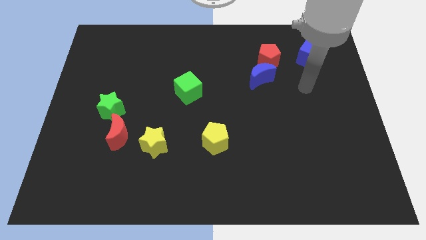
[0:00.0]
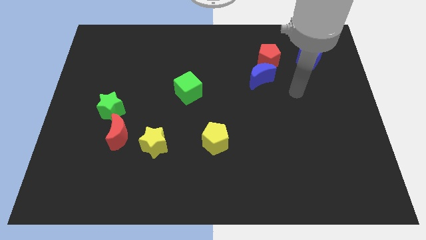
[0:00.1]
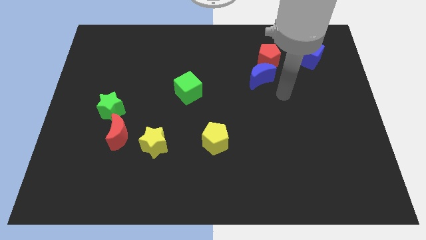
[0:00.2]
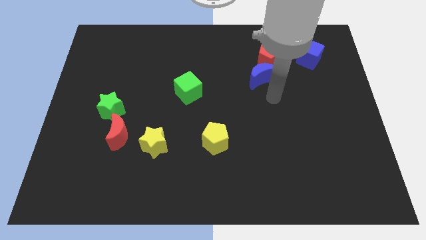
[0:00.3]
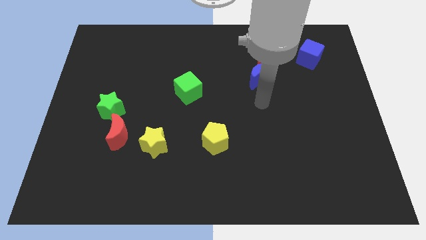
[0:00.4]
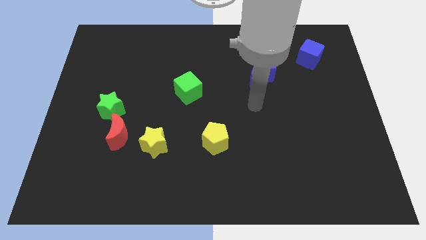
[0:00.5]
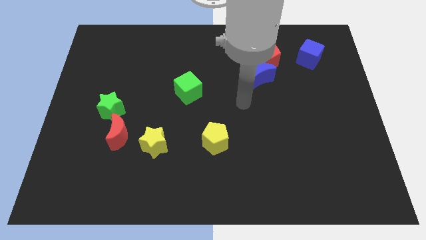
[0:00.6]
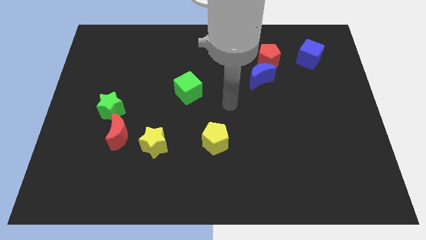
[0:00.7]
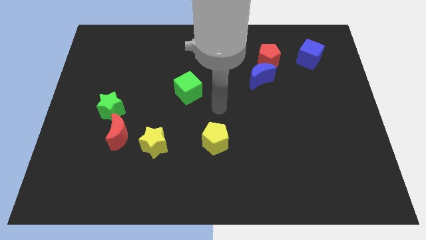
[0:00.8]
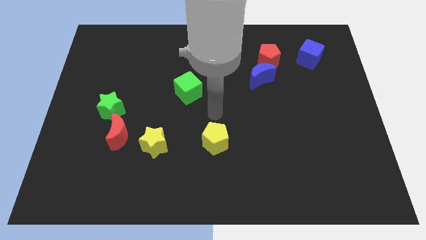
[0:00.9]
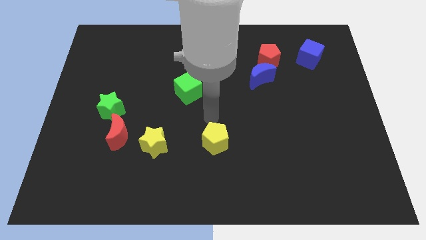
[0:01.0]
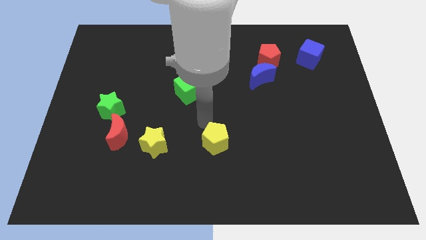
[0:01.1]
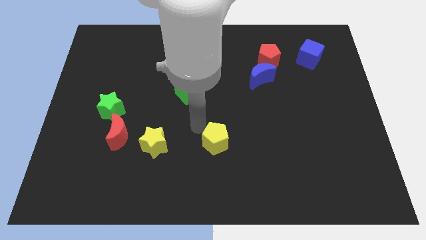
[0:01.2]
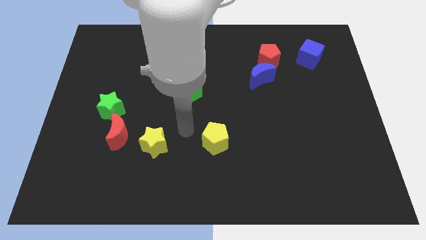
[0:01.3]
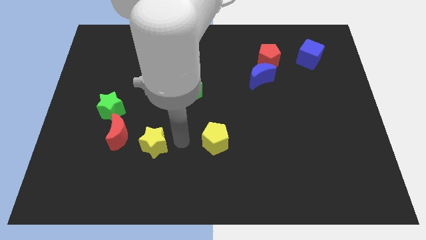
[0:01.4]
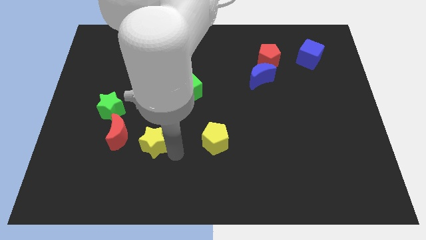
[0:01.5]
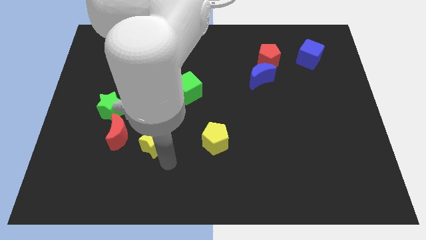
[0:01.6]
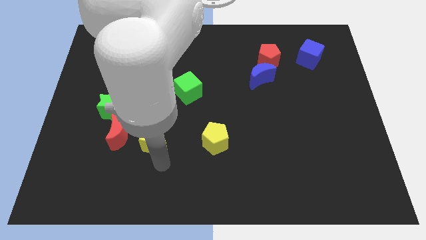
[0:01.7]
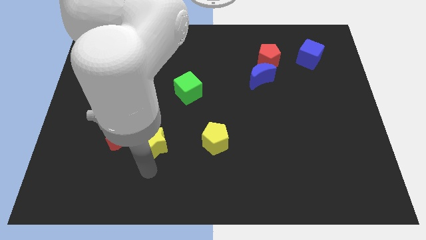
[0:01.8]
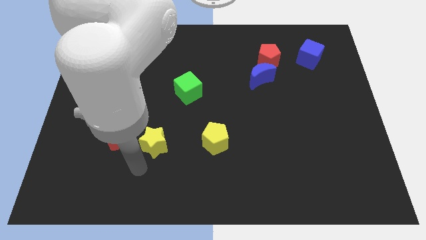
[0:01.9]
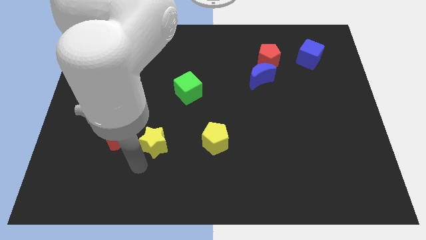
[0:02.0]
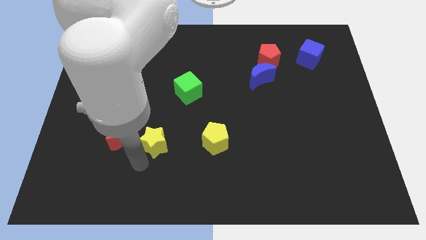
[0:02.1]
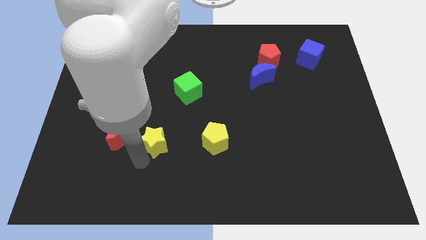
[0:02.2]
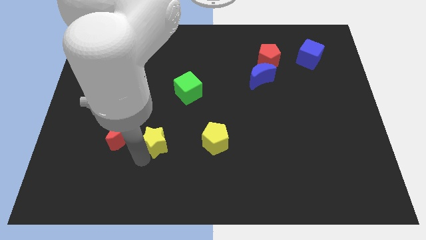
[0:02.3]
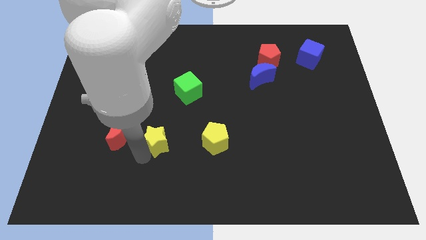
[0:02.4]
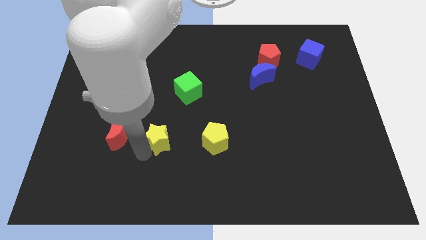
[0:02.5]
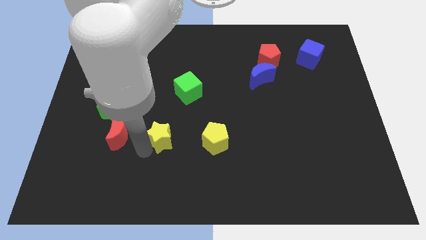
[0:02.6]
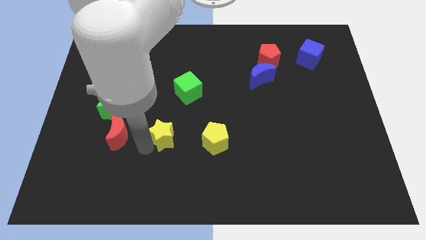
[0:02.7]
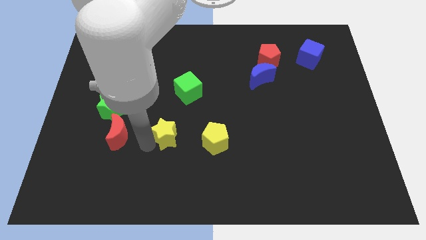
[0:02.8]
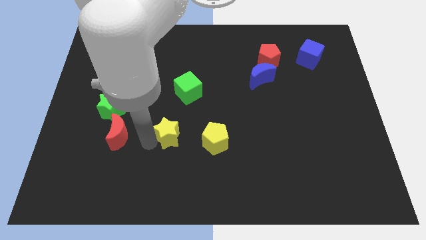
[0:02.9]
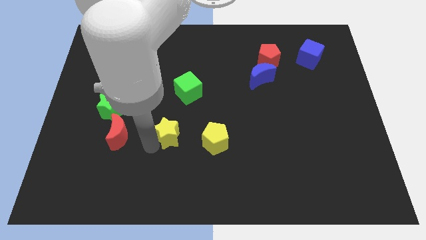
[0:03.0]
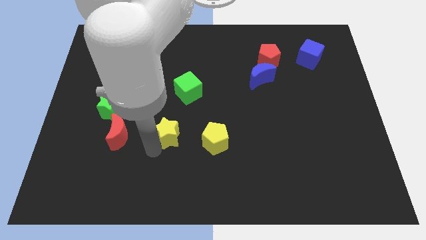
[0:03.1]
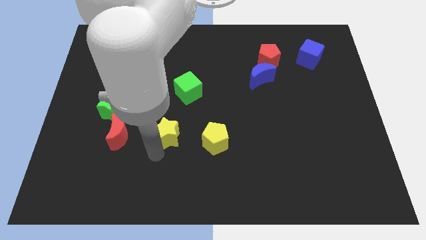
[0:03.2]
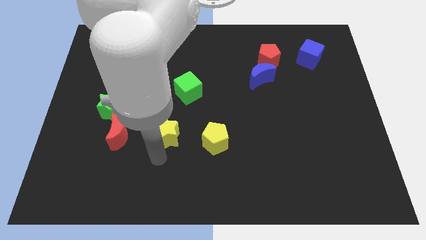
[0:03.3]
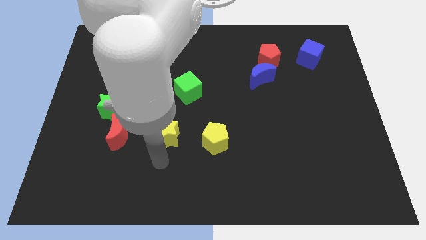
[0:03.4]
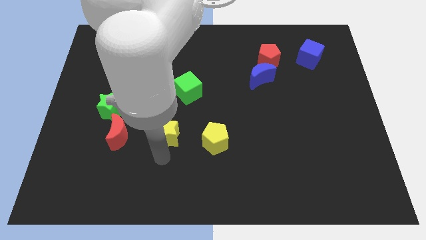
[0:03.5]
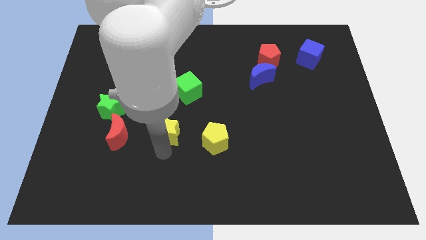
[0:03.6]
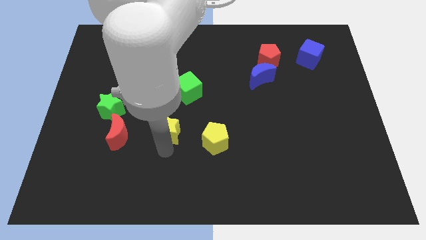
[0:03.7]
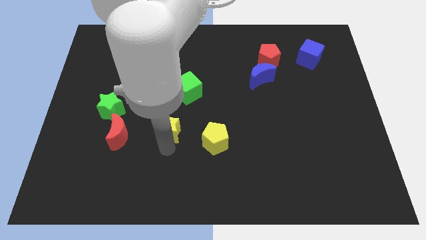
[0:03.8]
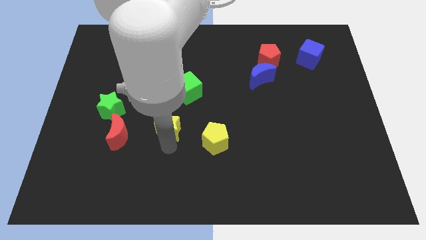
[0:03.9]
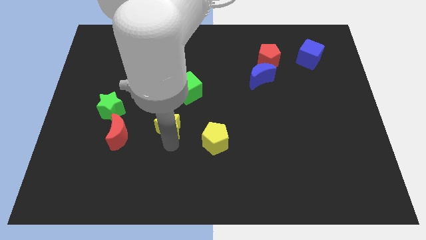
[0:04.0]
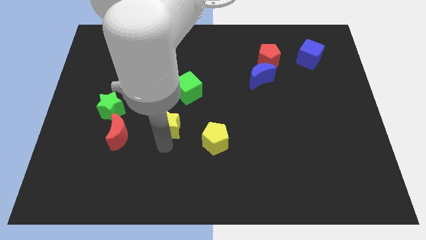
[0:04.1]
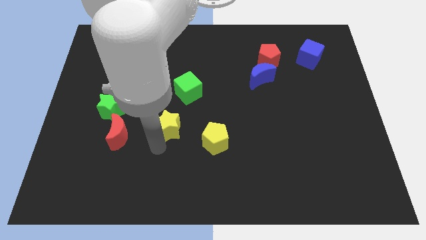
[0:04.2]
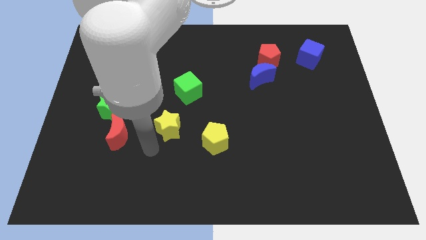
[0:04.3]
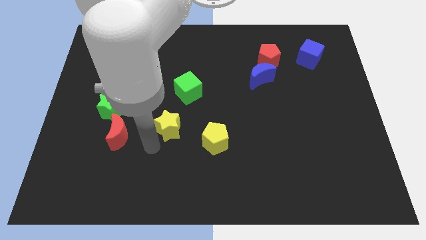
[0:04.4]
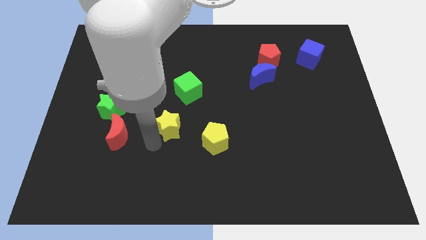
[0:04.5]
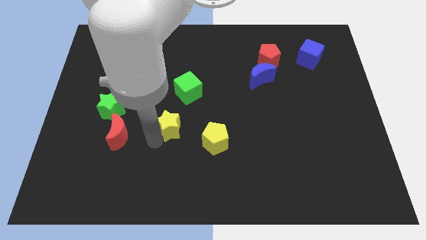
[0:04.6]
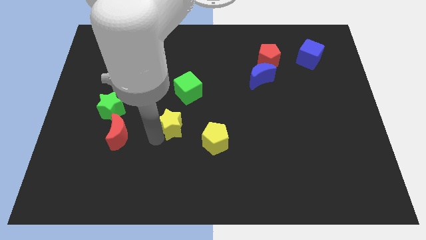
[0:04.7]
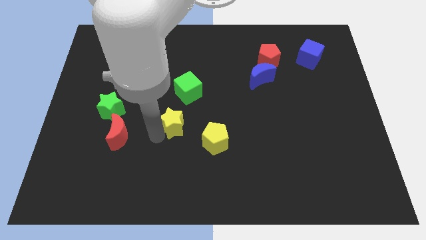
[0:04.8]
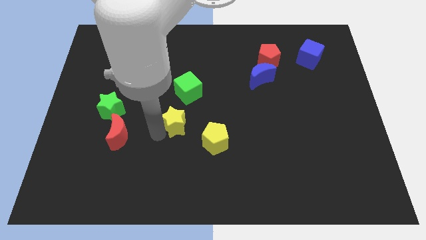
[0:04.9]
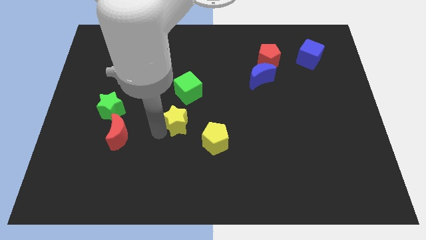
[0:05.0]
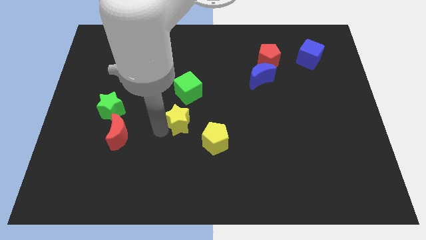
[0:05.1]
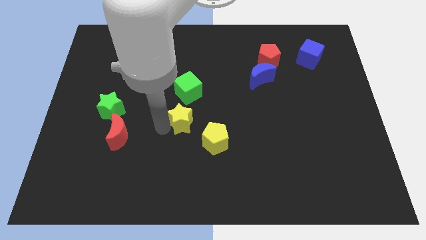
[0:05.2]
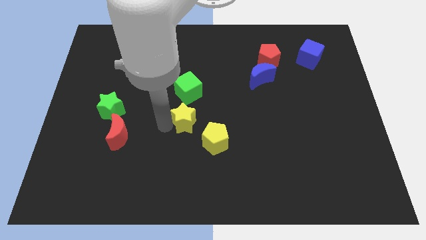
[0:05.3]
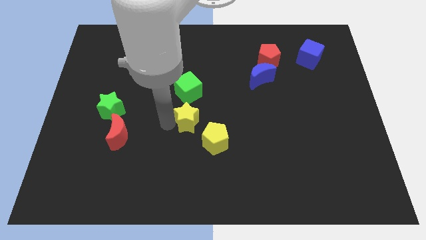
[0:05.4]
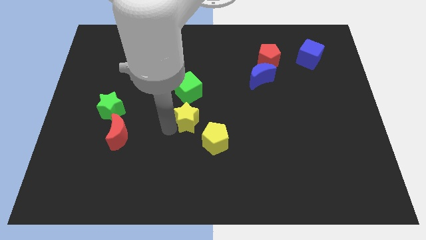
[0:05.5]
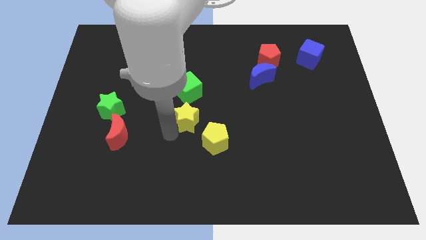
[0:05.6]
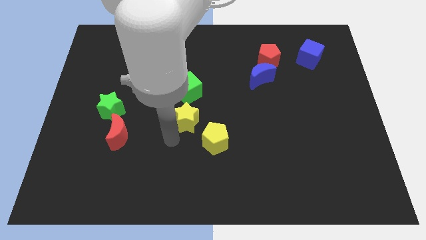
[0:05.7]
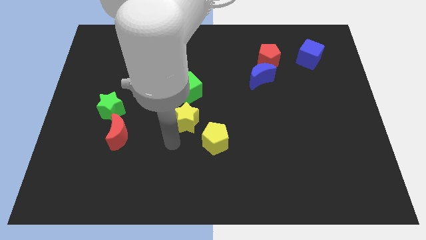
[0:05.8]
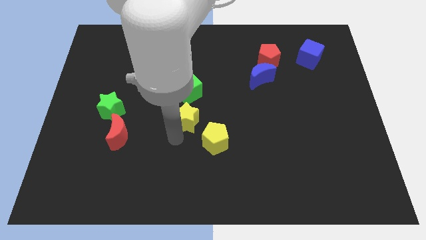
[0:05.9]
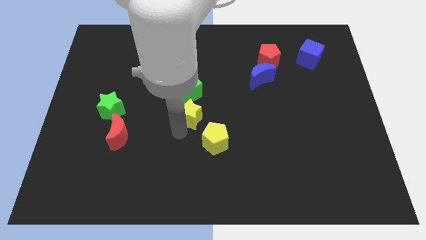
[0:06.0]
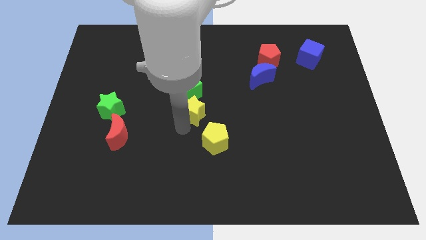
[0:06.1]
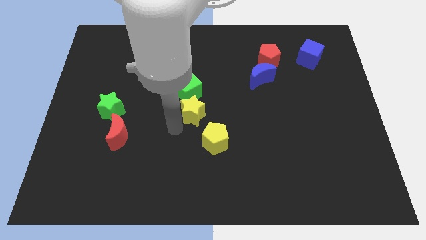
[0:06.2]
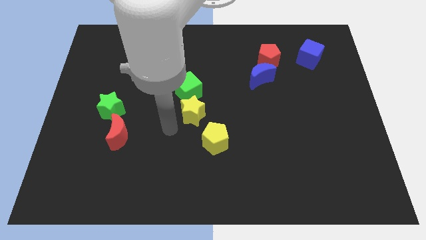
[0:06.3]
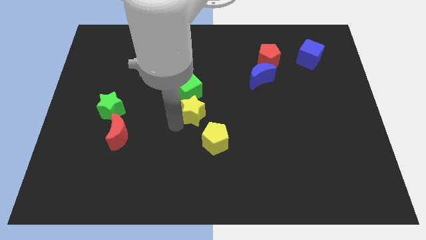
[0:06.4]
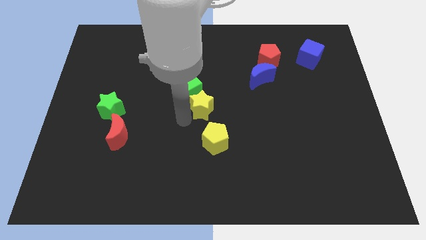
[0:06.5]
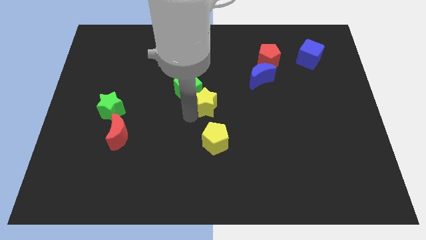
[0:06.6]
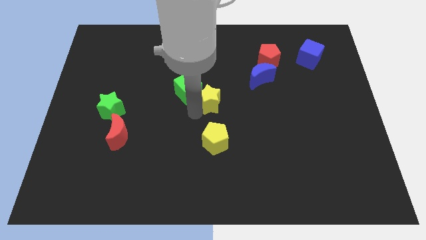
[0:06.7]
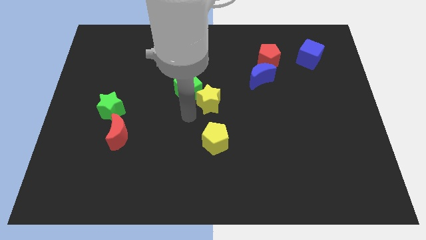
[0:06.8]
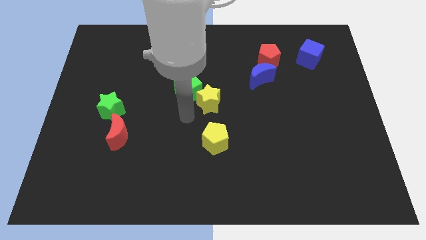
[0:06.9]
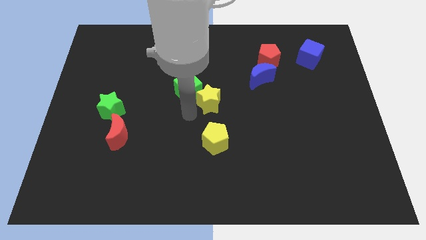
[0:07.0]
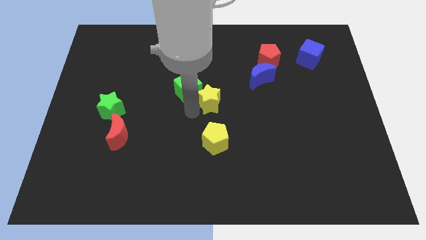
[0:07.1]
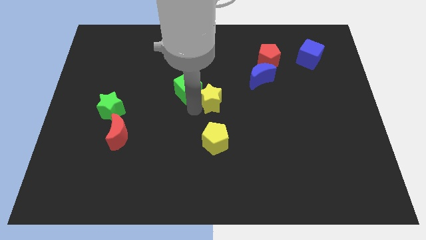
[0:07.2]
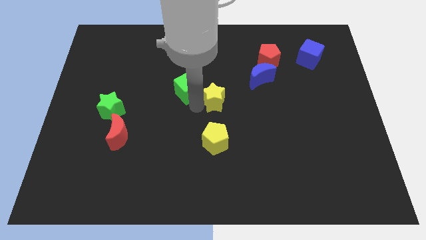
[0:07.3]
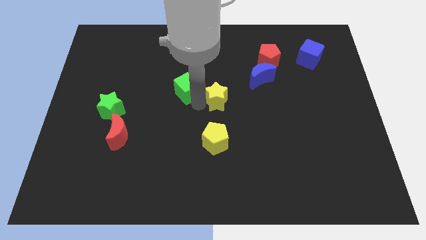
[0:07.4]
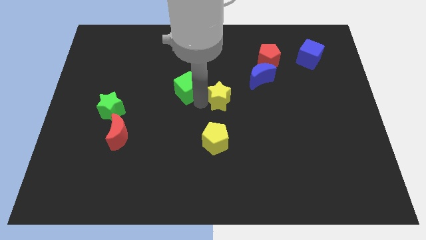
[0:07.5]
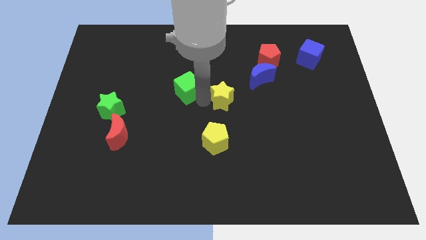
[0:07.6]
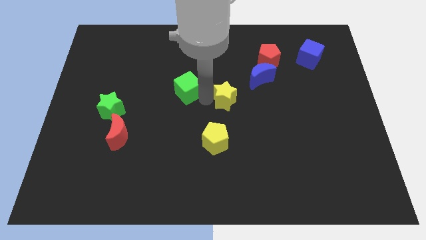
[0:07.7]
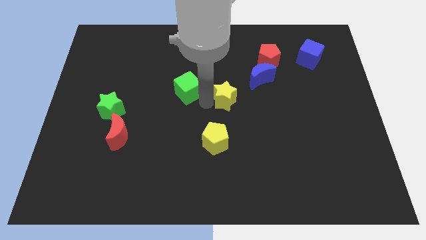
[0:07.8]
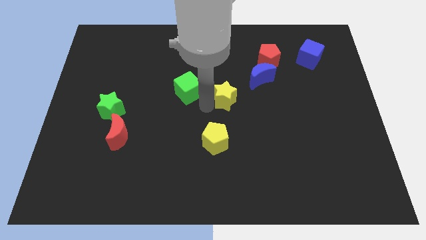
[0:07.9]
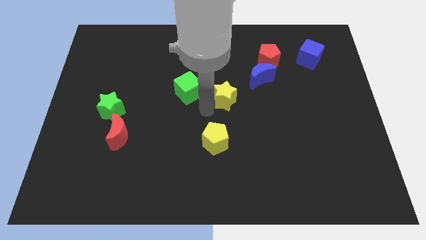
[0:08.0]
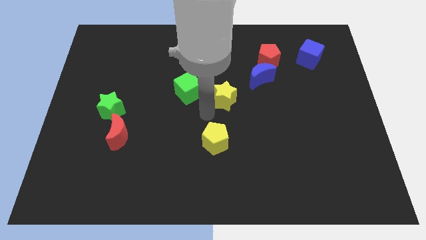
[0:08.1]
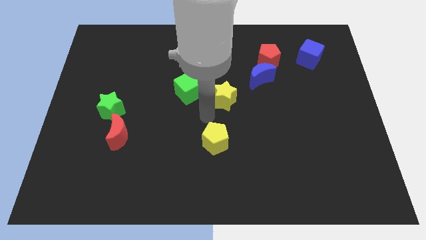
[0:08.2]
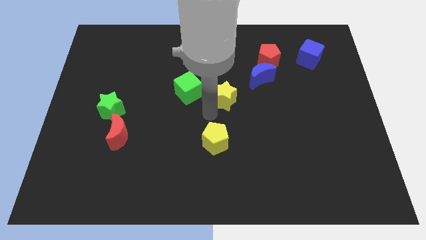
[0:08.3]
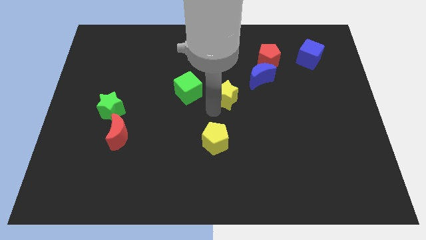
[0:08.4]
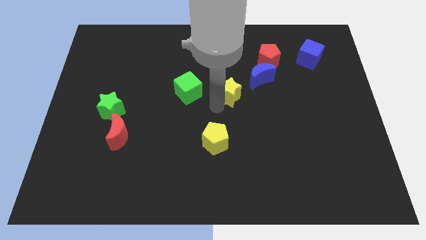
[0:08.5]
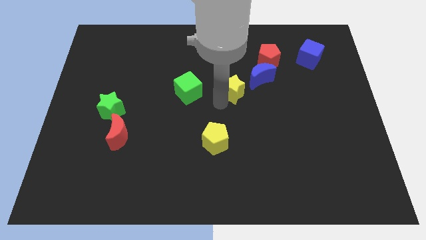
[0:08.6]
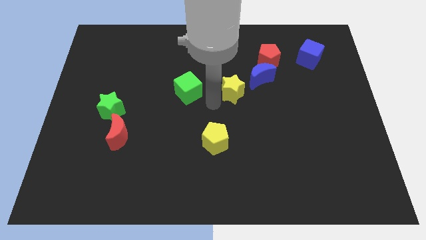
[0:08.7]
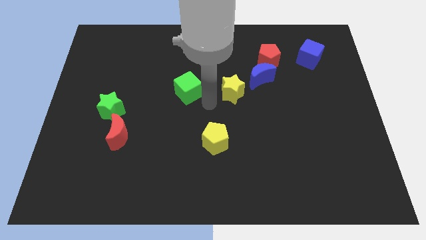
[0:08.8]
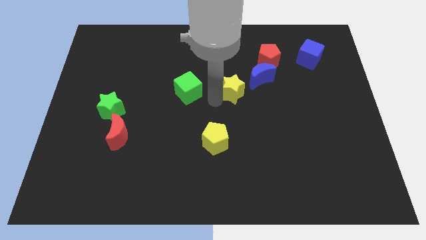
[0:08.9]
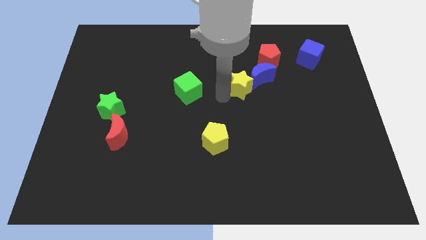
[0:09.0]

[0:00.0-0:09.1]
move the yellow star next to the blue moon
